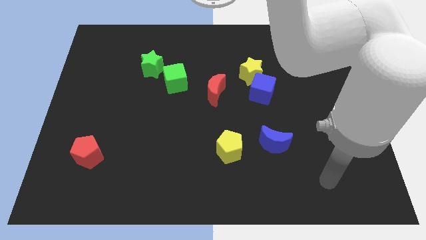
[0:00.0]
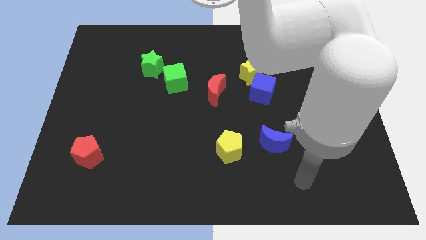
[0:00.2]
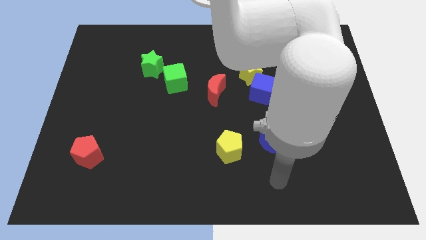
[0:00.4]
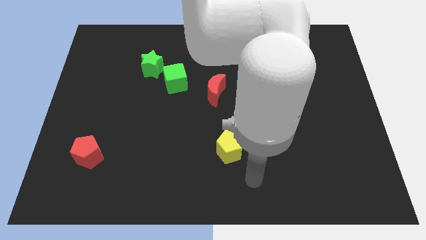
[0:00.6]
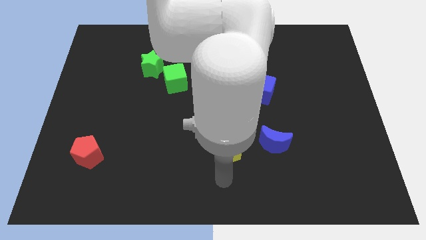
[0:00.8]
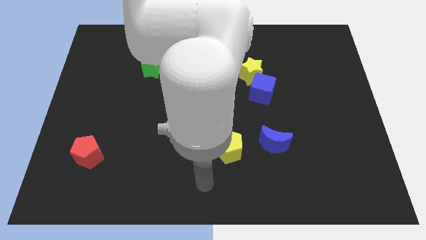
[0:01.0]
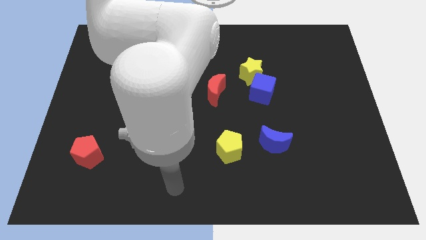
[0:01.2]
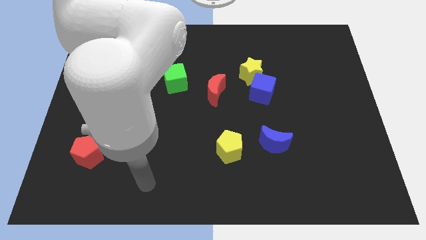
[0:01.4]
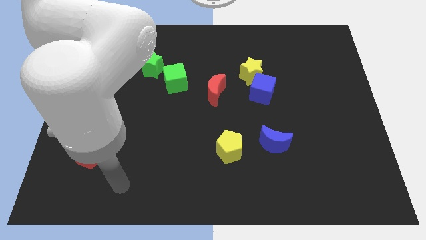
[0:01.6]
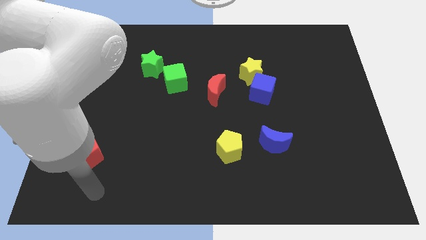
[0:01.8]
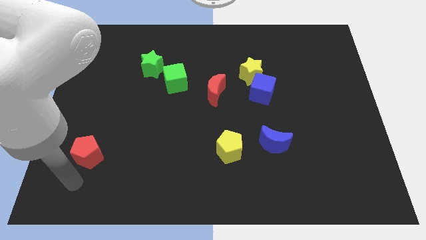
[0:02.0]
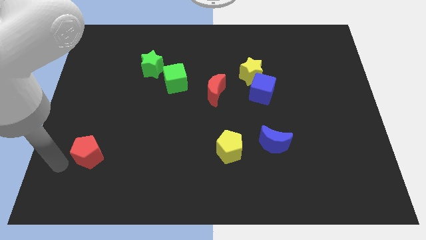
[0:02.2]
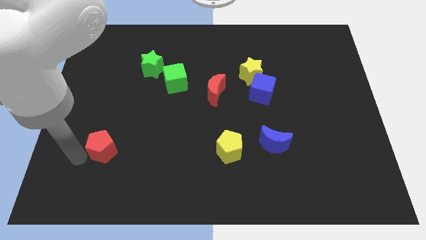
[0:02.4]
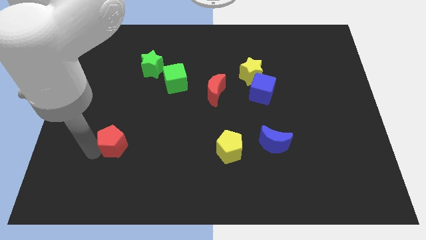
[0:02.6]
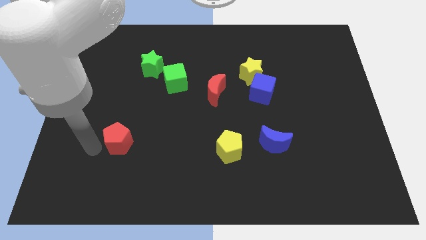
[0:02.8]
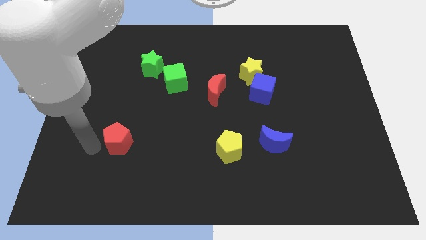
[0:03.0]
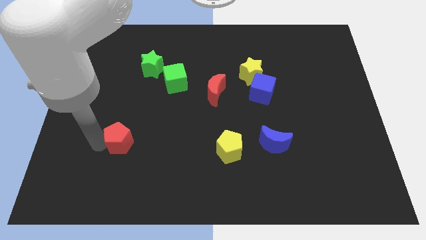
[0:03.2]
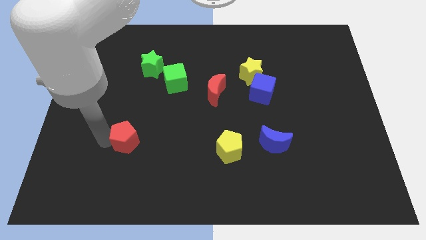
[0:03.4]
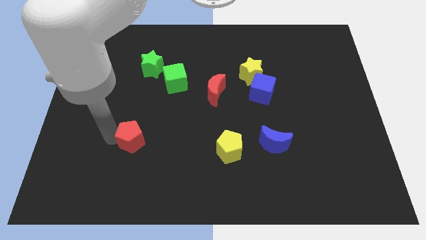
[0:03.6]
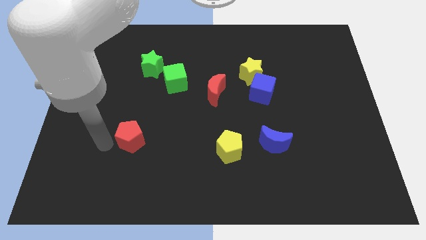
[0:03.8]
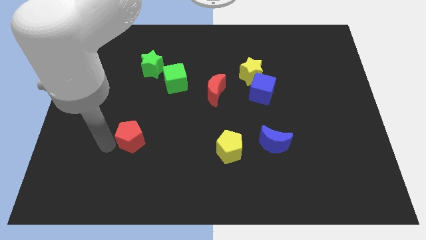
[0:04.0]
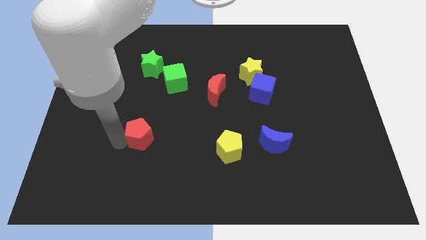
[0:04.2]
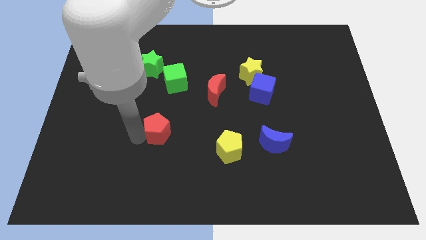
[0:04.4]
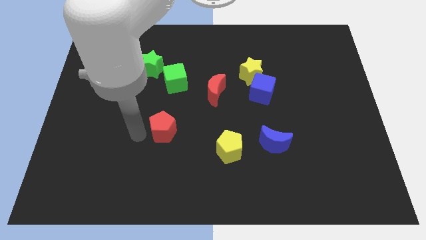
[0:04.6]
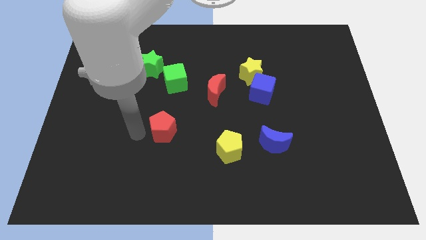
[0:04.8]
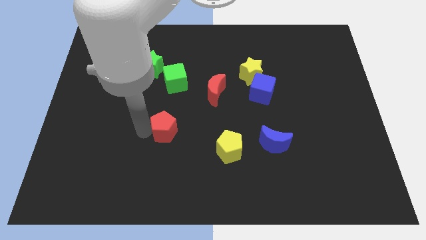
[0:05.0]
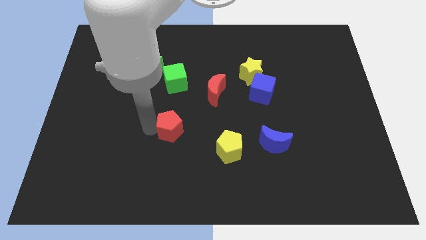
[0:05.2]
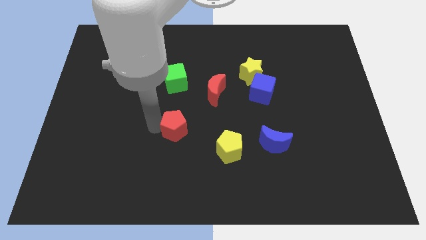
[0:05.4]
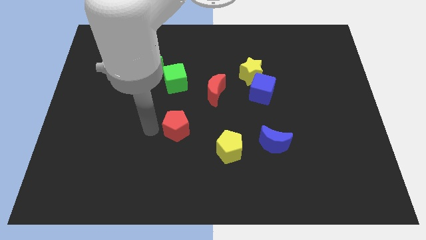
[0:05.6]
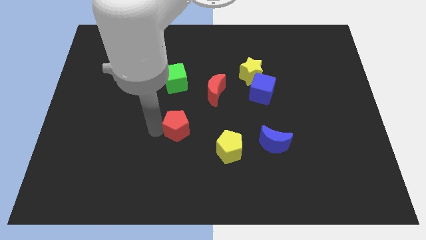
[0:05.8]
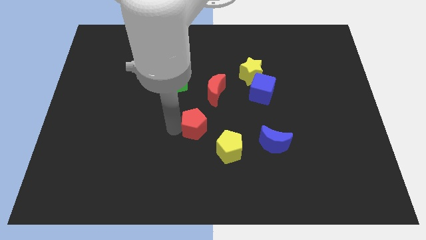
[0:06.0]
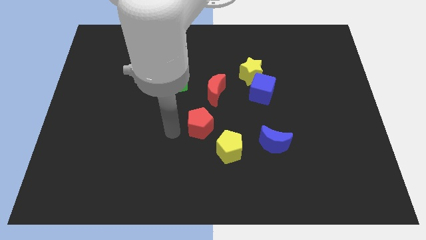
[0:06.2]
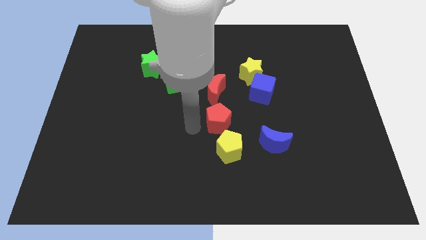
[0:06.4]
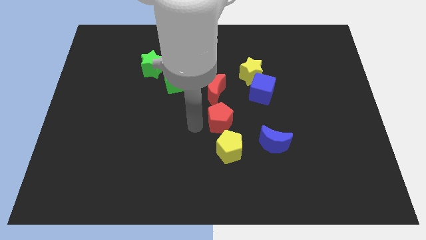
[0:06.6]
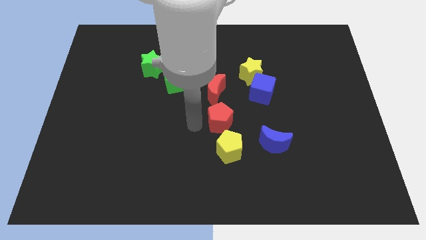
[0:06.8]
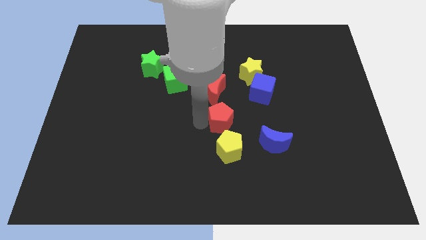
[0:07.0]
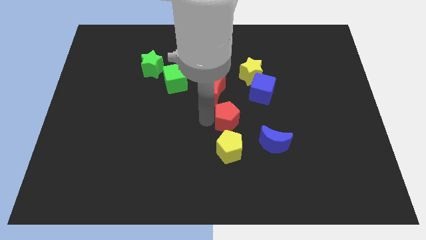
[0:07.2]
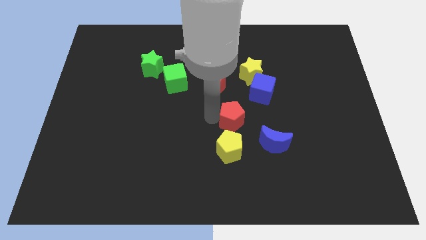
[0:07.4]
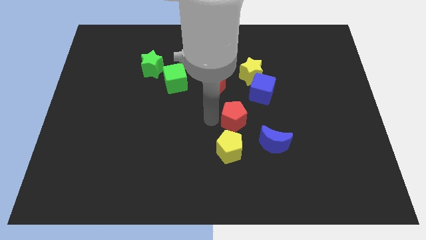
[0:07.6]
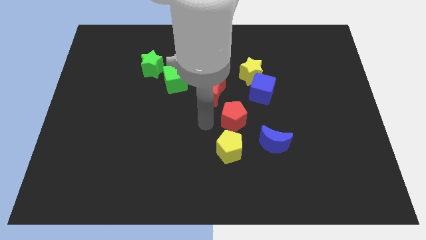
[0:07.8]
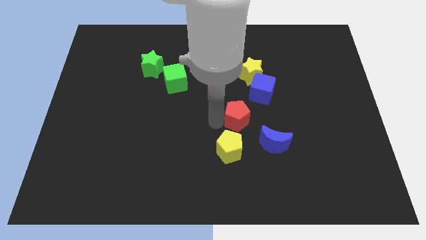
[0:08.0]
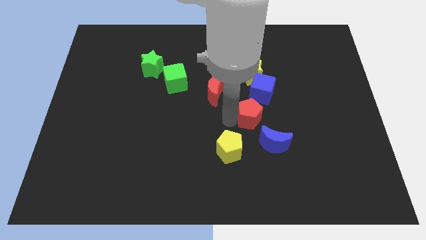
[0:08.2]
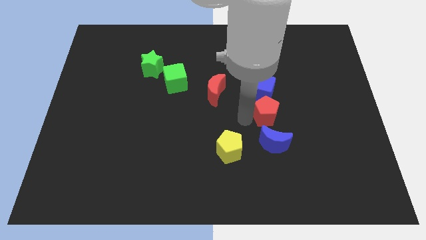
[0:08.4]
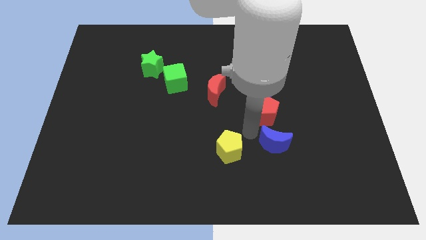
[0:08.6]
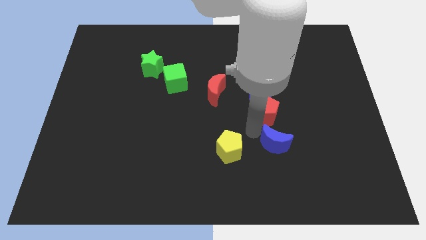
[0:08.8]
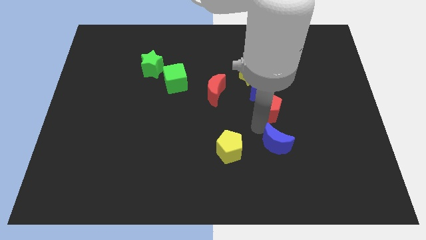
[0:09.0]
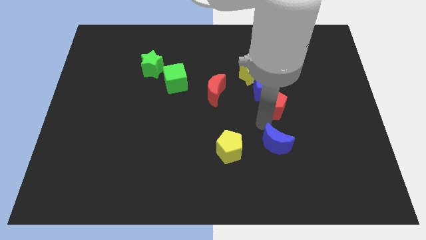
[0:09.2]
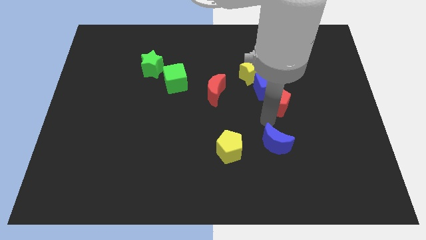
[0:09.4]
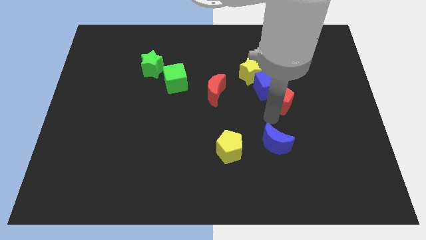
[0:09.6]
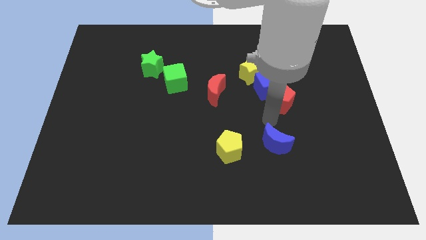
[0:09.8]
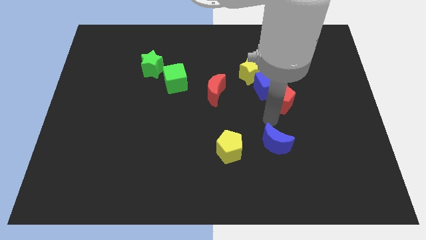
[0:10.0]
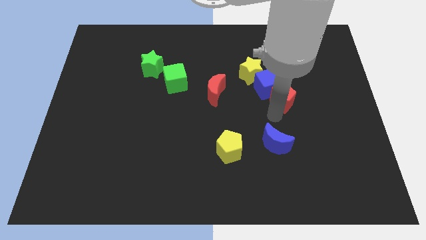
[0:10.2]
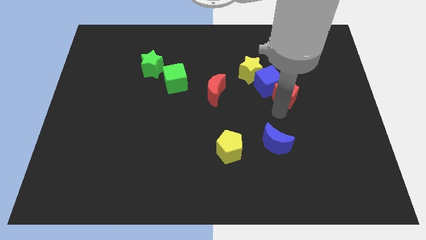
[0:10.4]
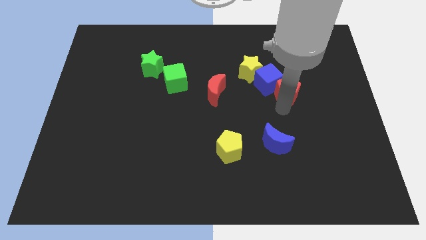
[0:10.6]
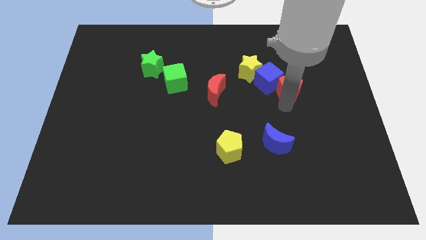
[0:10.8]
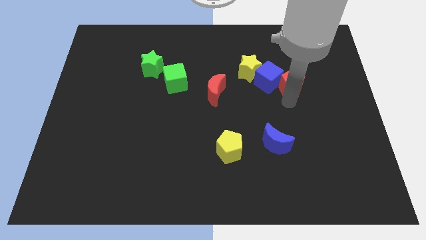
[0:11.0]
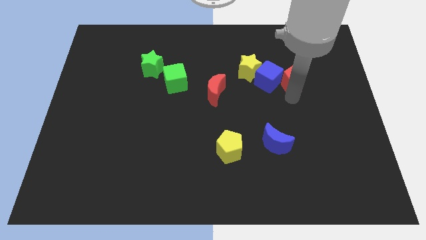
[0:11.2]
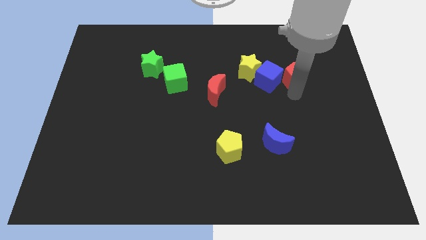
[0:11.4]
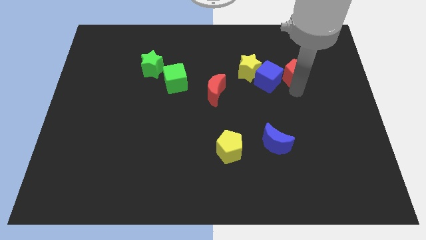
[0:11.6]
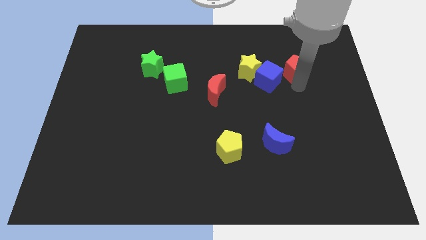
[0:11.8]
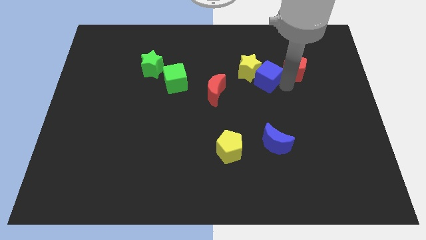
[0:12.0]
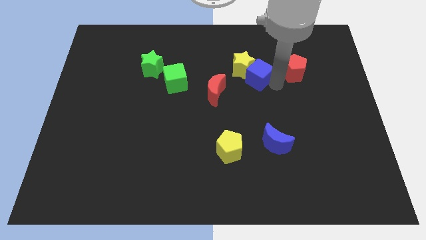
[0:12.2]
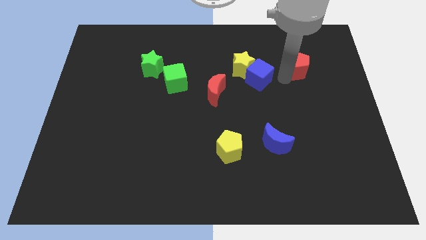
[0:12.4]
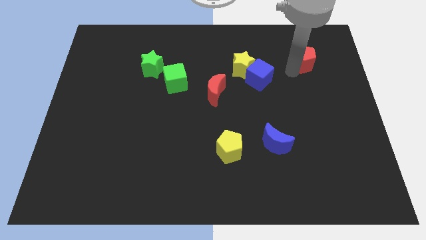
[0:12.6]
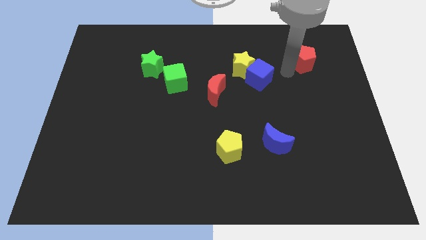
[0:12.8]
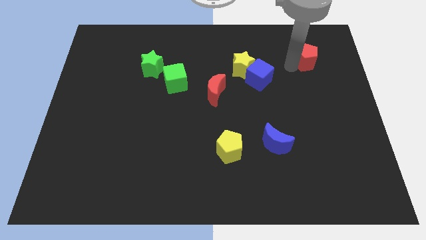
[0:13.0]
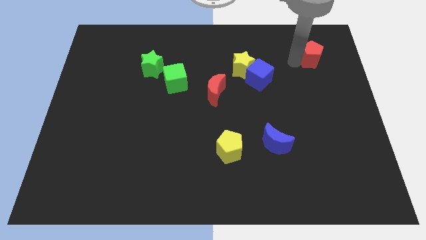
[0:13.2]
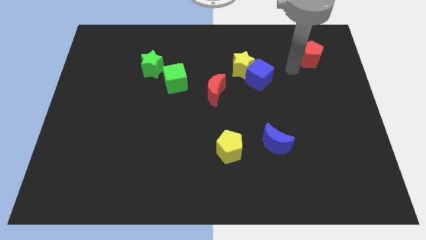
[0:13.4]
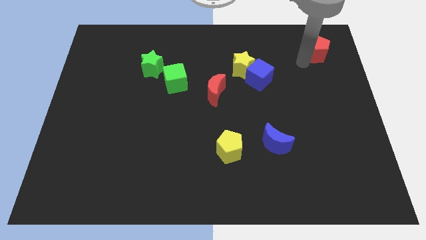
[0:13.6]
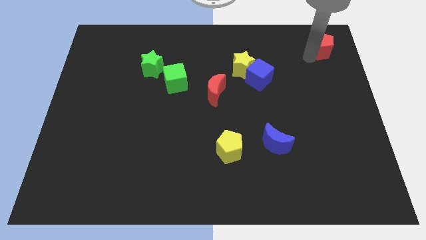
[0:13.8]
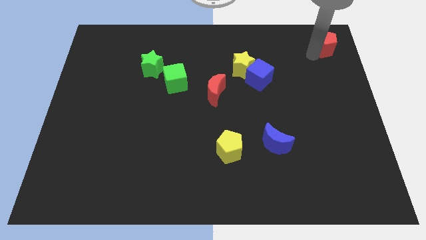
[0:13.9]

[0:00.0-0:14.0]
put the red pentagon to the top right corner
